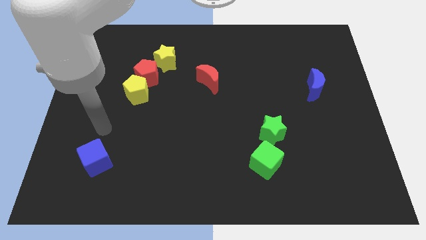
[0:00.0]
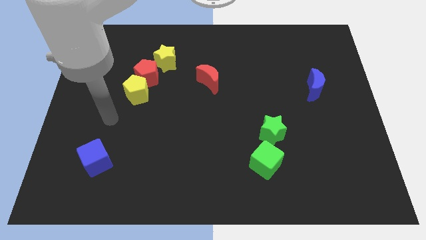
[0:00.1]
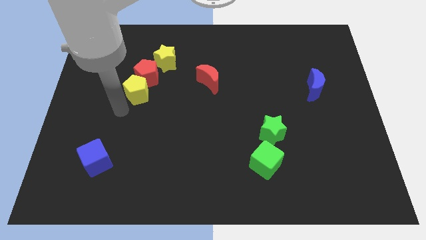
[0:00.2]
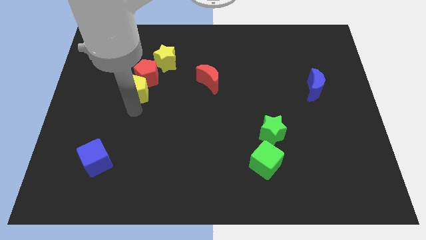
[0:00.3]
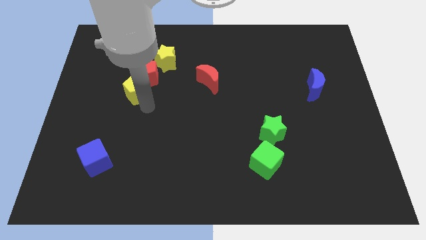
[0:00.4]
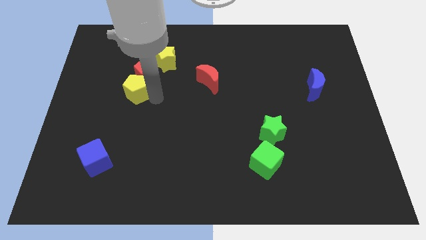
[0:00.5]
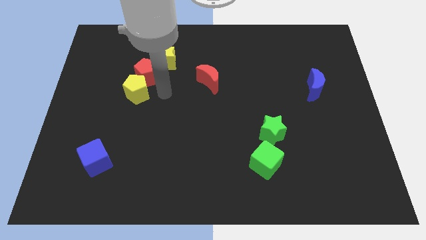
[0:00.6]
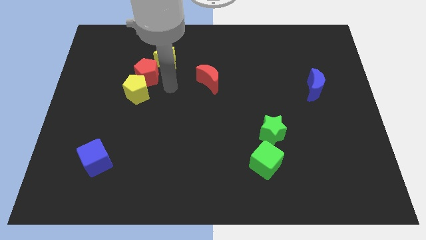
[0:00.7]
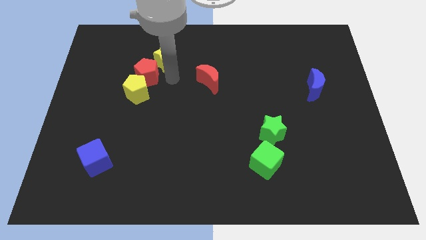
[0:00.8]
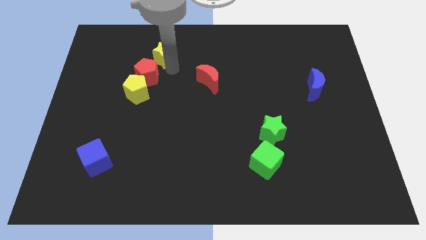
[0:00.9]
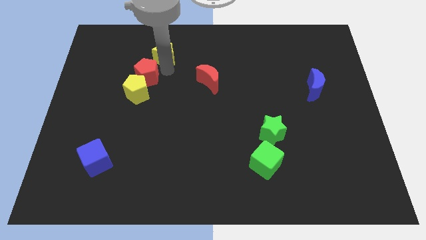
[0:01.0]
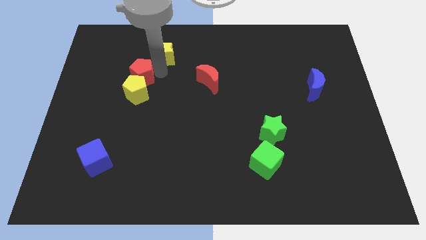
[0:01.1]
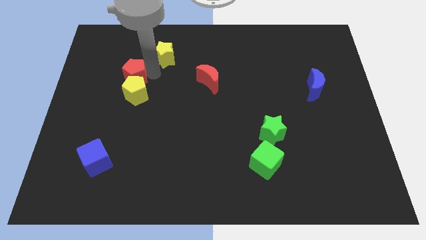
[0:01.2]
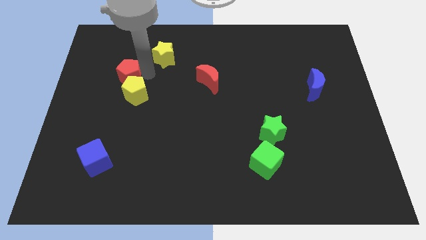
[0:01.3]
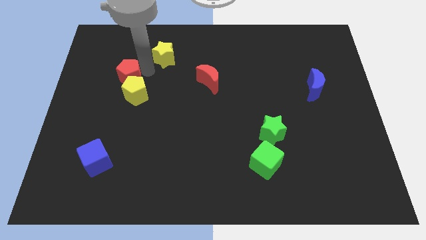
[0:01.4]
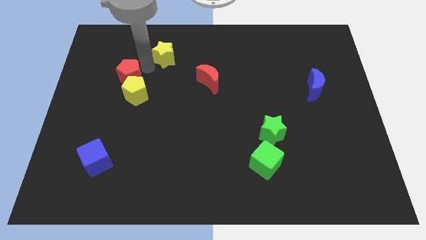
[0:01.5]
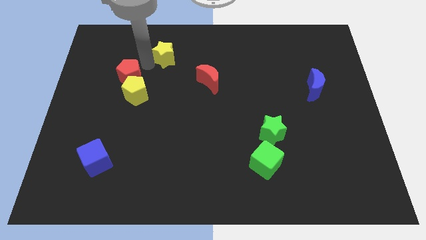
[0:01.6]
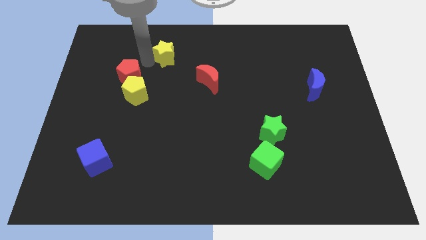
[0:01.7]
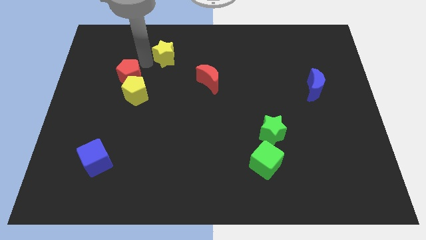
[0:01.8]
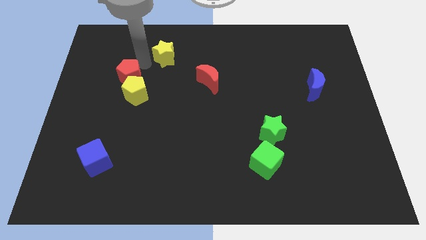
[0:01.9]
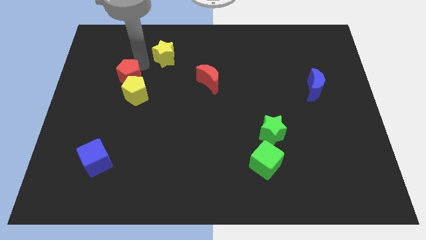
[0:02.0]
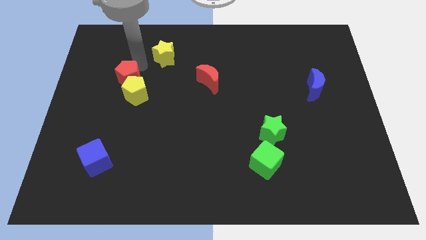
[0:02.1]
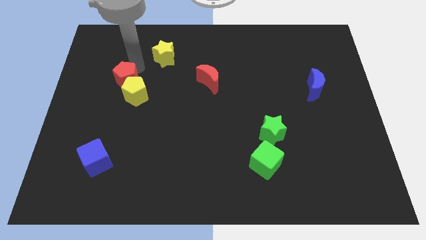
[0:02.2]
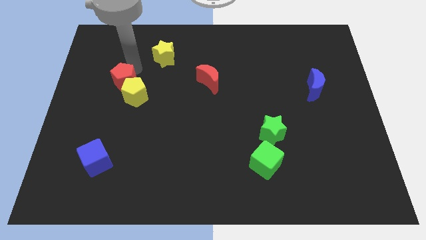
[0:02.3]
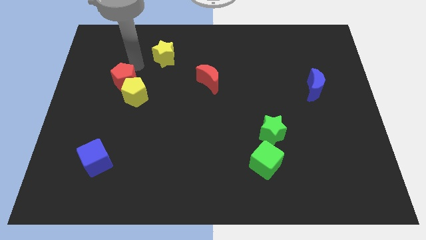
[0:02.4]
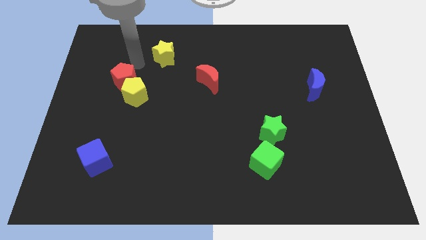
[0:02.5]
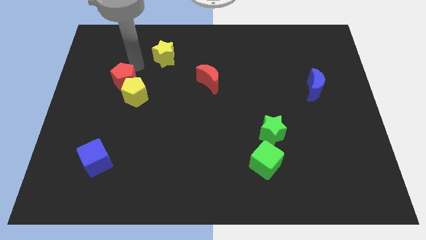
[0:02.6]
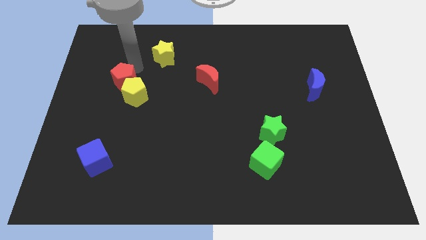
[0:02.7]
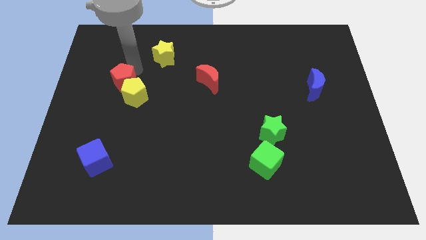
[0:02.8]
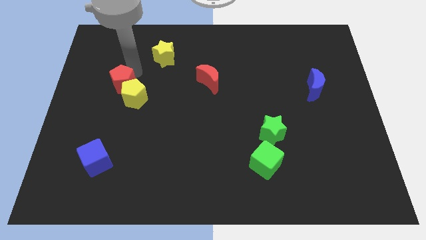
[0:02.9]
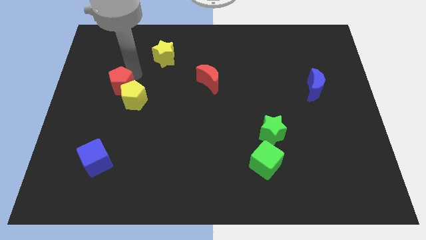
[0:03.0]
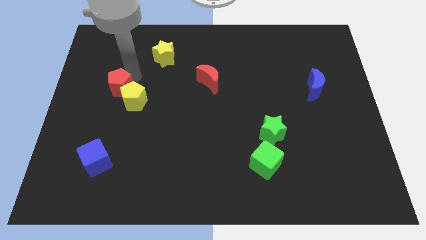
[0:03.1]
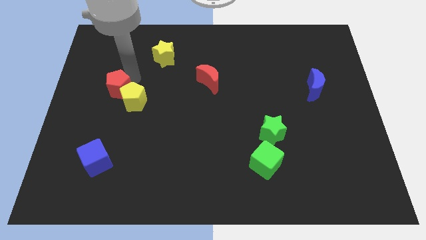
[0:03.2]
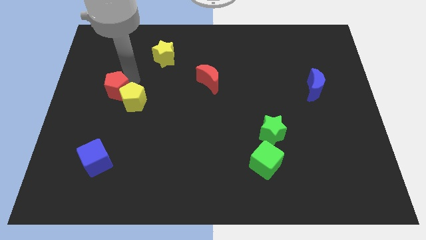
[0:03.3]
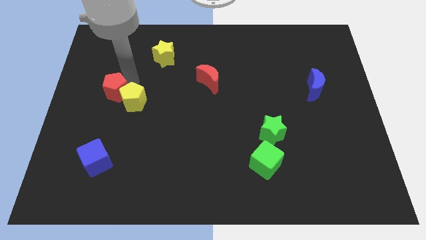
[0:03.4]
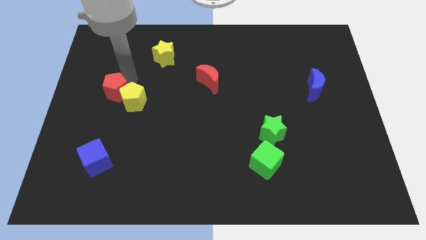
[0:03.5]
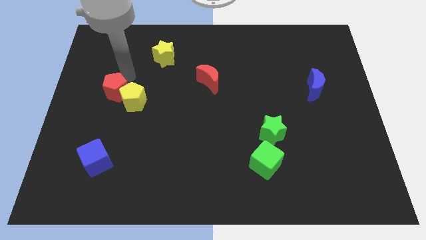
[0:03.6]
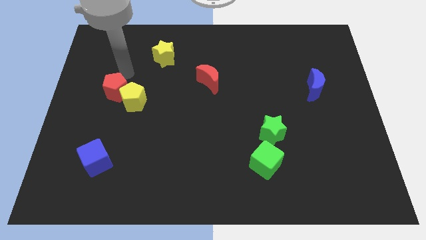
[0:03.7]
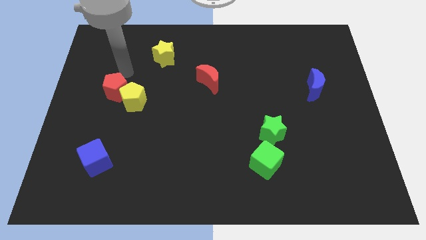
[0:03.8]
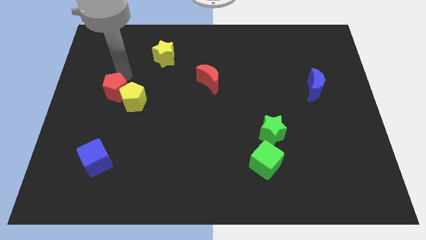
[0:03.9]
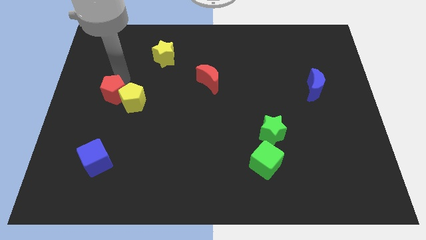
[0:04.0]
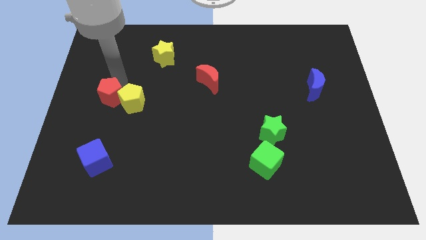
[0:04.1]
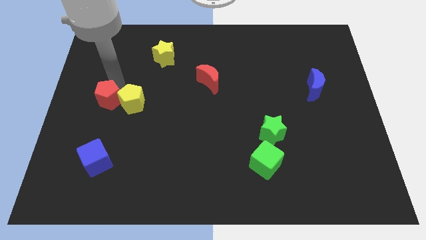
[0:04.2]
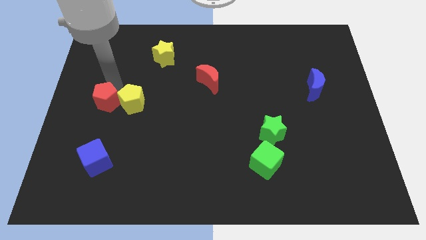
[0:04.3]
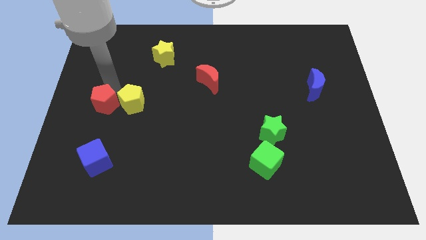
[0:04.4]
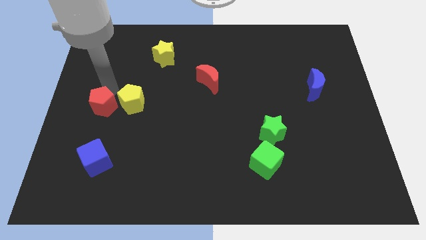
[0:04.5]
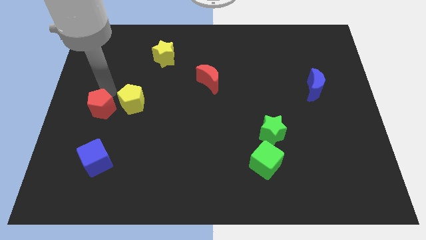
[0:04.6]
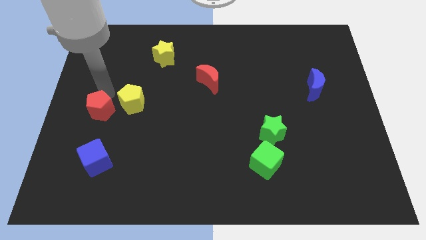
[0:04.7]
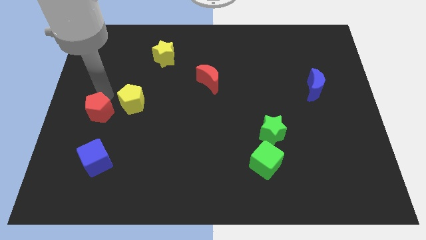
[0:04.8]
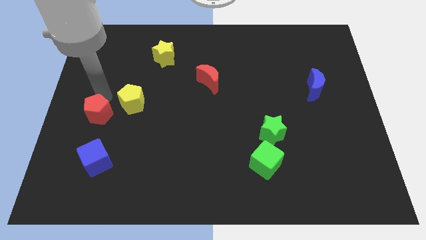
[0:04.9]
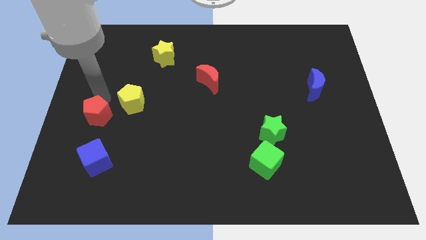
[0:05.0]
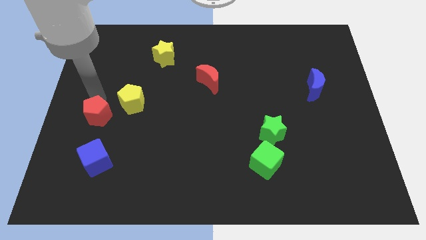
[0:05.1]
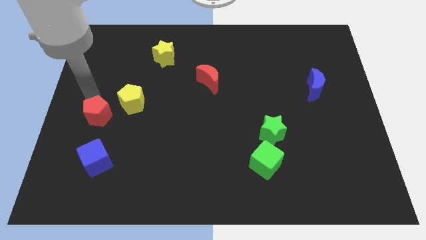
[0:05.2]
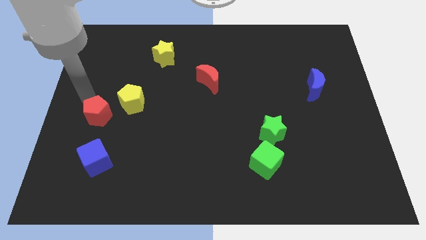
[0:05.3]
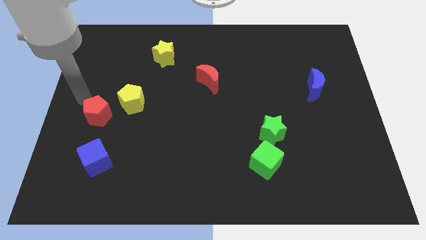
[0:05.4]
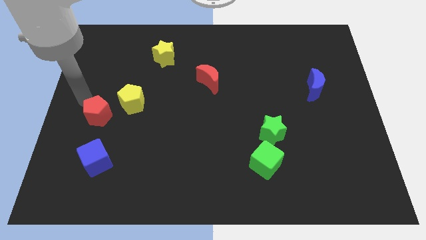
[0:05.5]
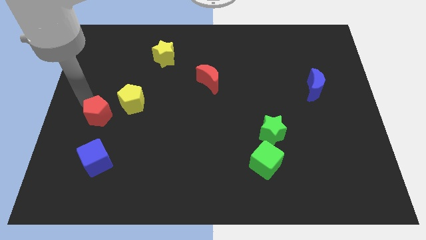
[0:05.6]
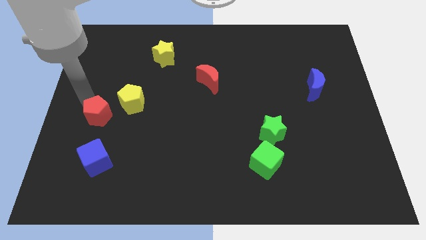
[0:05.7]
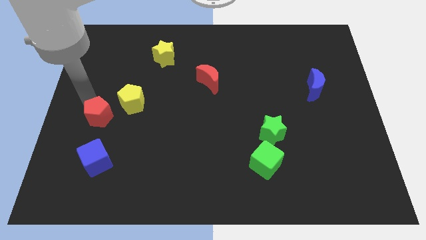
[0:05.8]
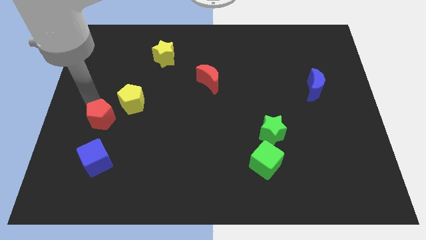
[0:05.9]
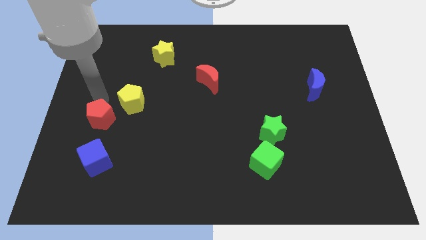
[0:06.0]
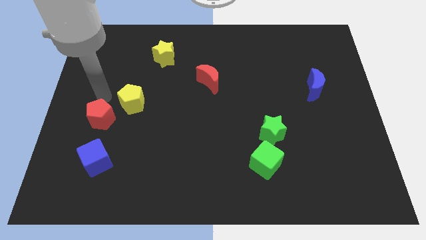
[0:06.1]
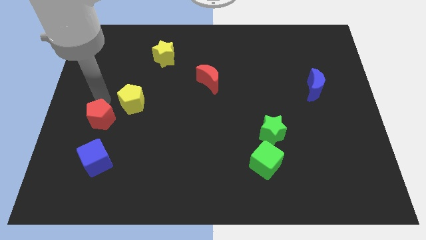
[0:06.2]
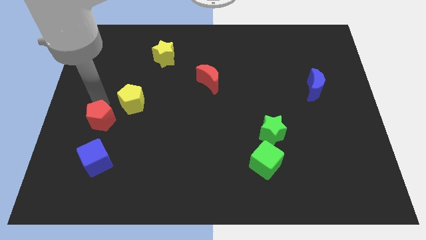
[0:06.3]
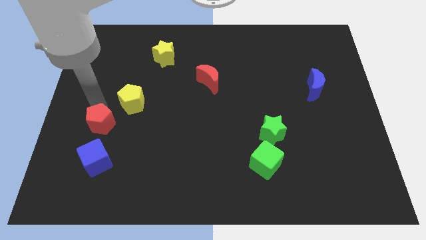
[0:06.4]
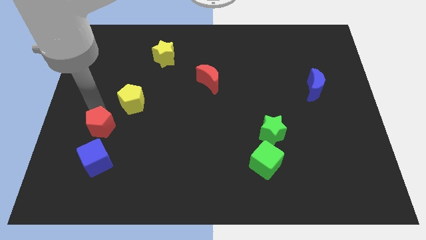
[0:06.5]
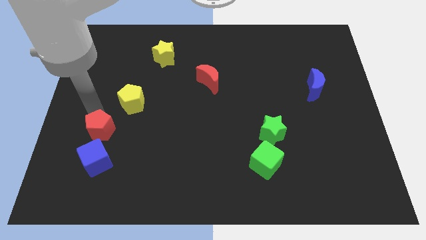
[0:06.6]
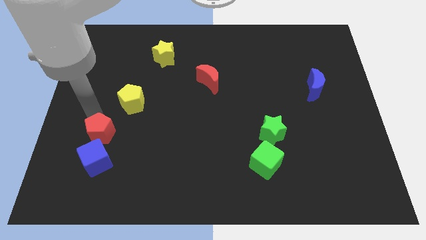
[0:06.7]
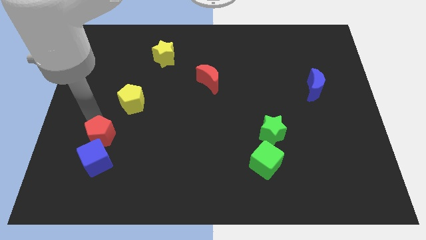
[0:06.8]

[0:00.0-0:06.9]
slide the red pentagon close to the blue cube

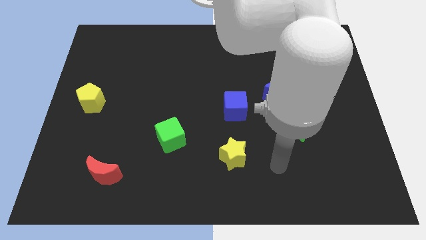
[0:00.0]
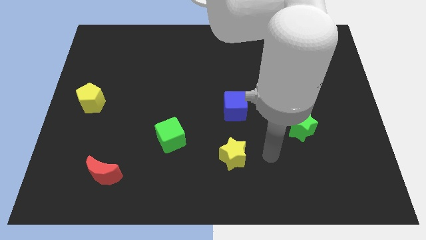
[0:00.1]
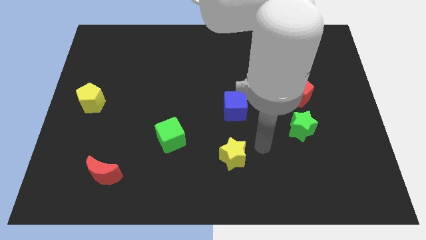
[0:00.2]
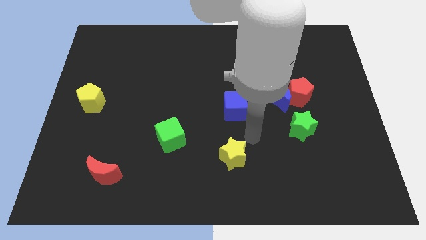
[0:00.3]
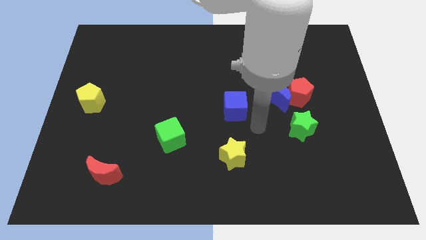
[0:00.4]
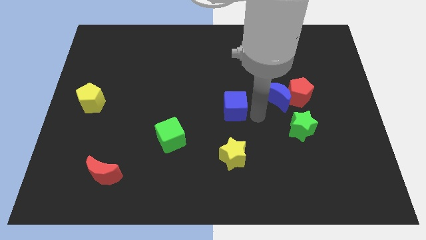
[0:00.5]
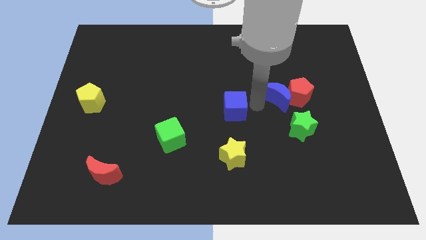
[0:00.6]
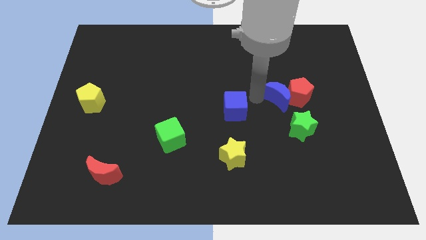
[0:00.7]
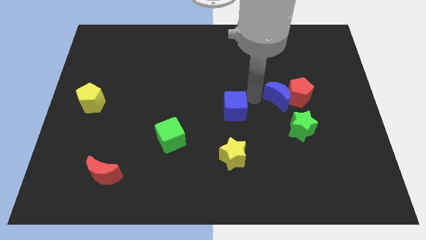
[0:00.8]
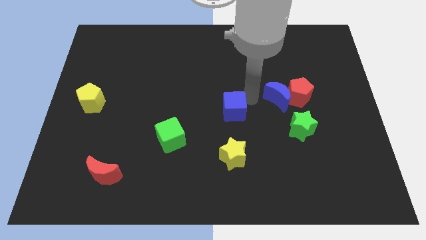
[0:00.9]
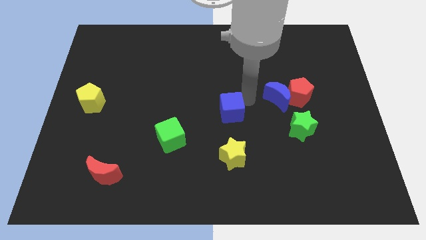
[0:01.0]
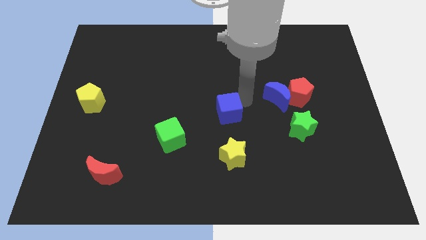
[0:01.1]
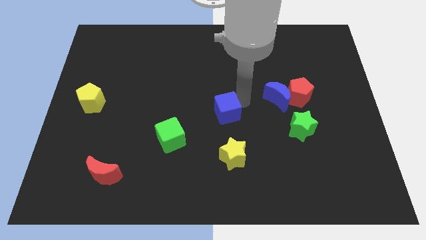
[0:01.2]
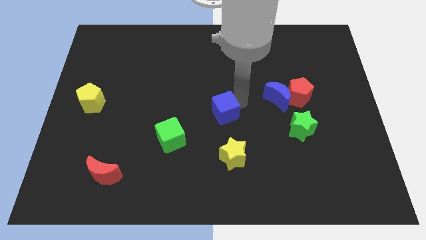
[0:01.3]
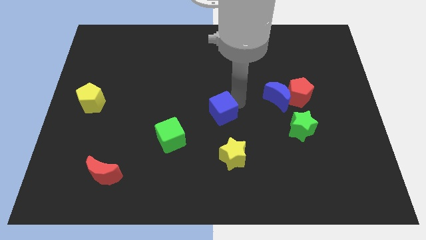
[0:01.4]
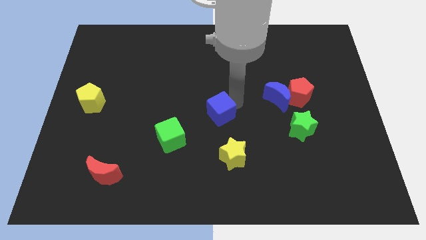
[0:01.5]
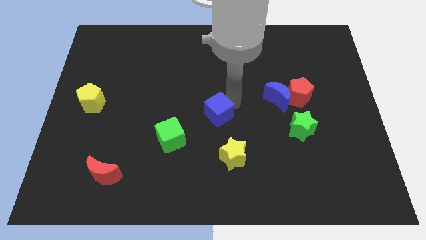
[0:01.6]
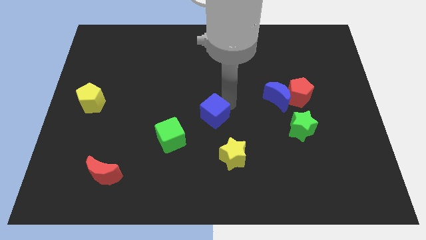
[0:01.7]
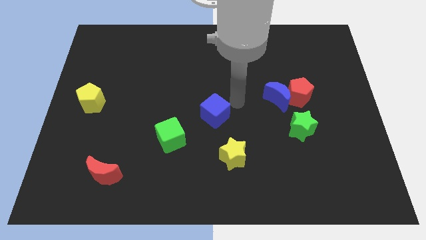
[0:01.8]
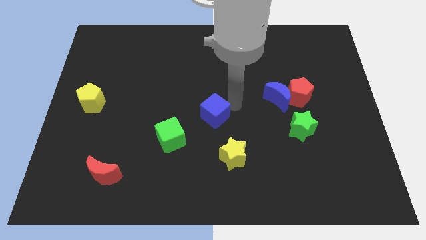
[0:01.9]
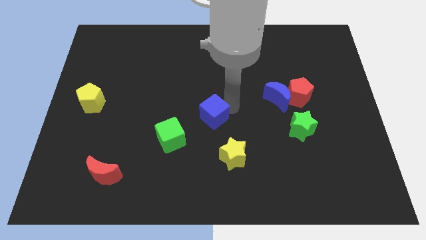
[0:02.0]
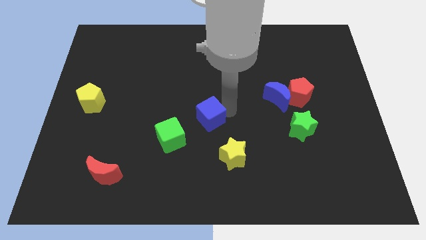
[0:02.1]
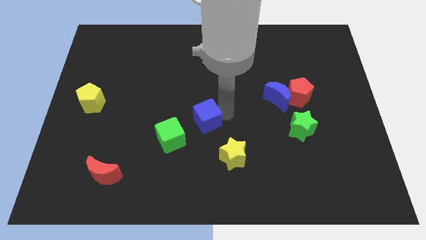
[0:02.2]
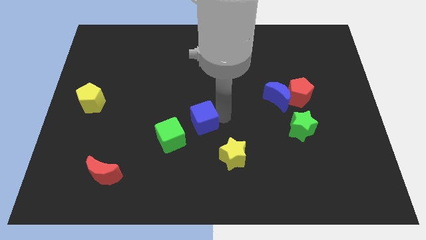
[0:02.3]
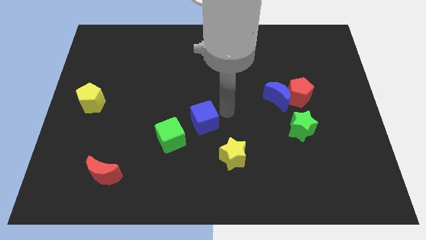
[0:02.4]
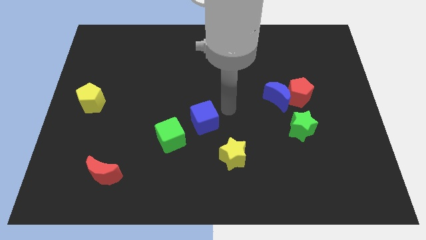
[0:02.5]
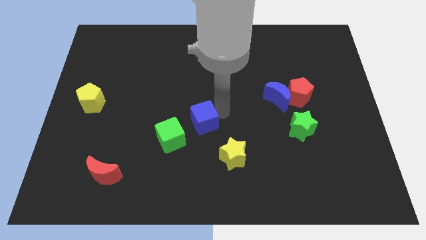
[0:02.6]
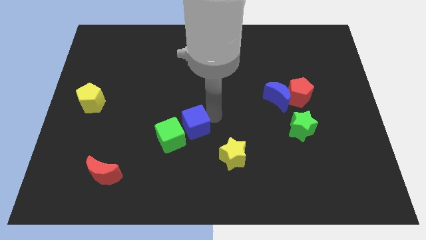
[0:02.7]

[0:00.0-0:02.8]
slide the blue cube next to the green cube
